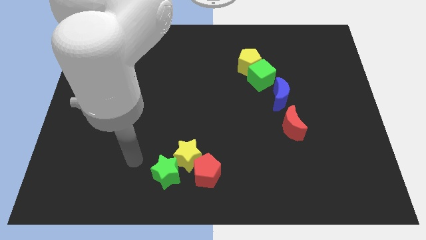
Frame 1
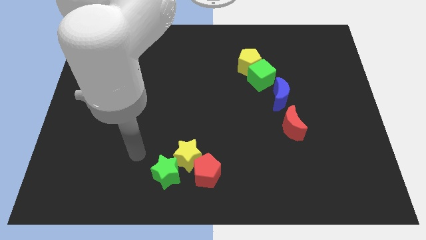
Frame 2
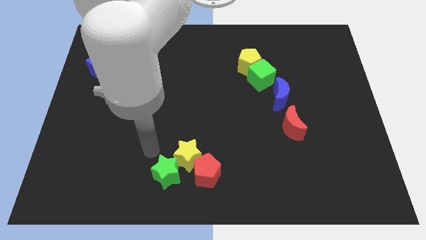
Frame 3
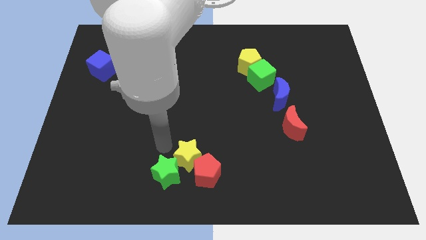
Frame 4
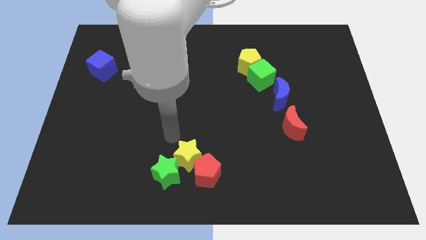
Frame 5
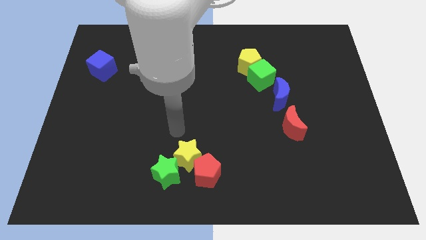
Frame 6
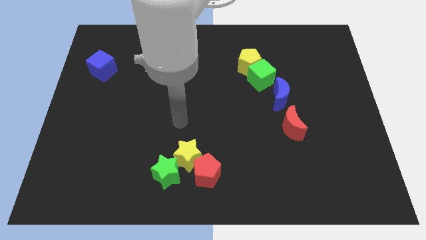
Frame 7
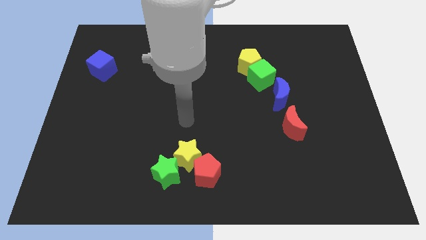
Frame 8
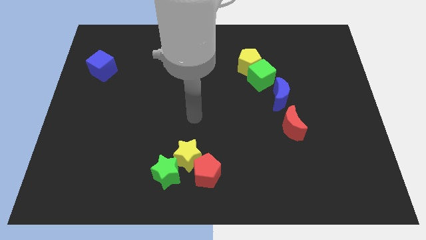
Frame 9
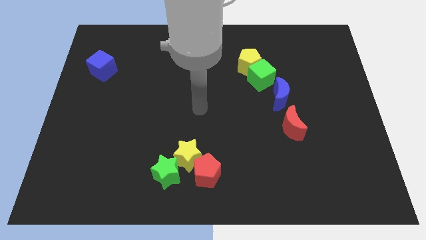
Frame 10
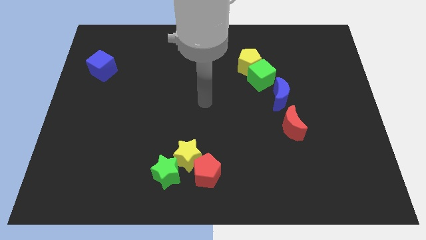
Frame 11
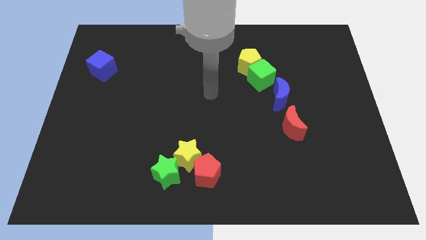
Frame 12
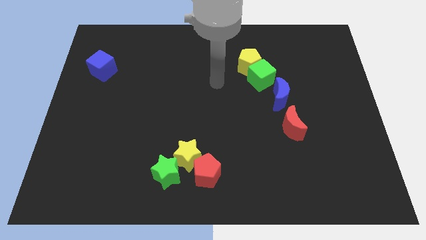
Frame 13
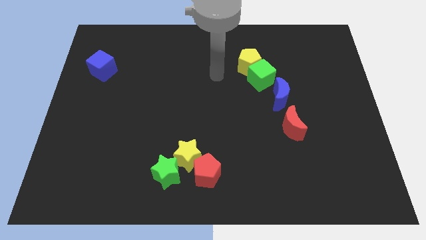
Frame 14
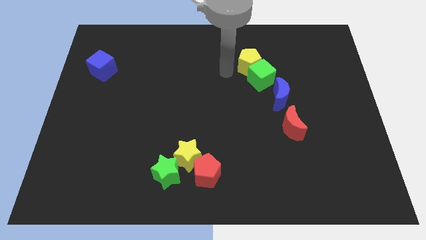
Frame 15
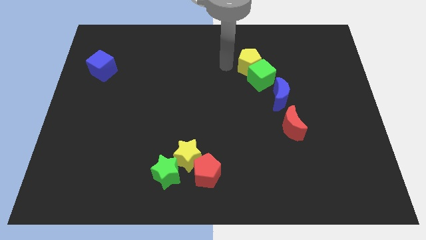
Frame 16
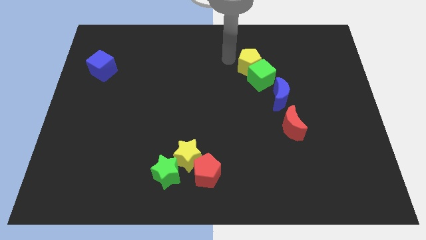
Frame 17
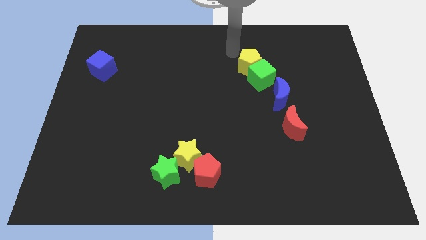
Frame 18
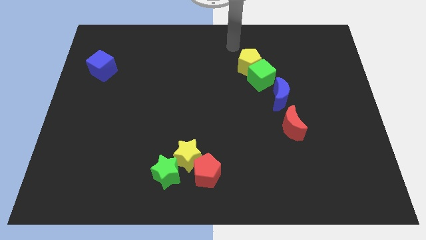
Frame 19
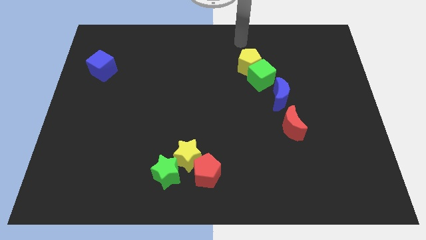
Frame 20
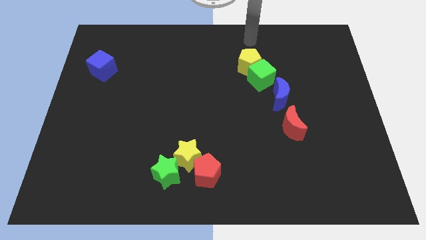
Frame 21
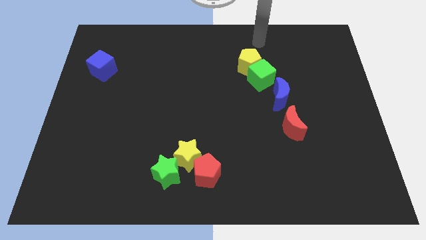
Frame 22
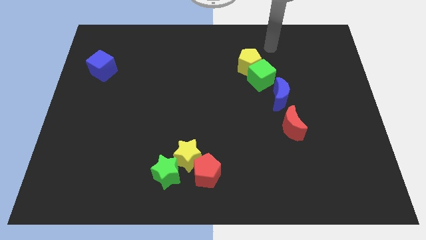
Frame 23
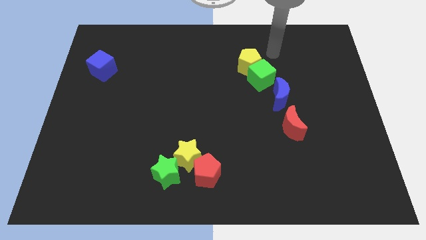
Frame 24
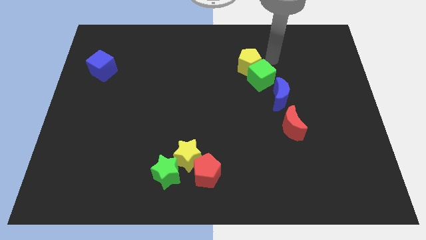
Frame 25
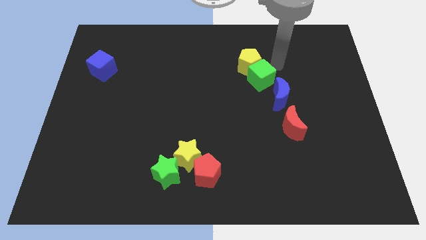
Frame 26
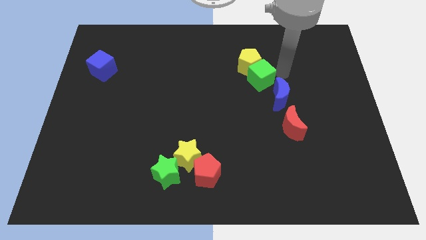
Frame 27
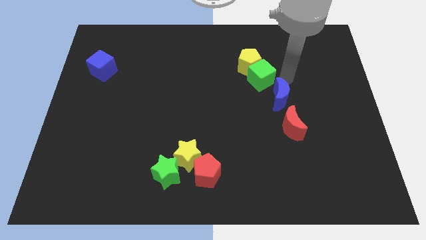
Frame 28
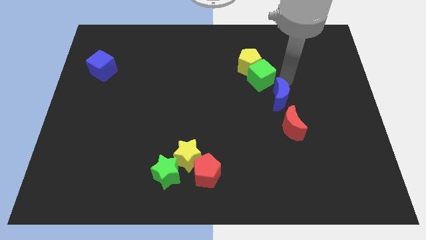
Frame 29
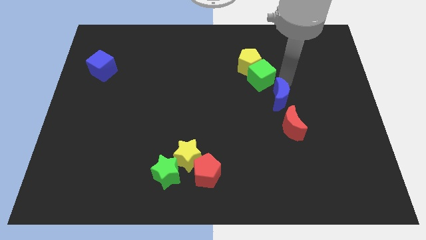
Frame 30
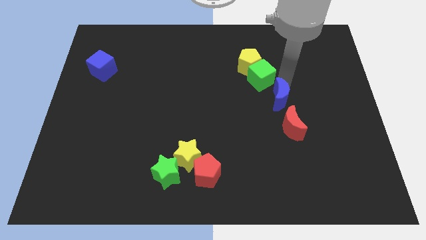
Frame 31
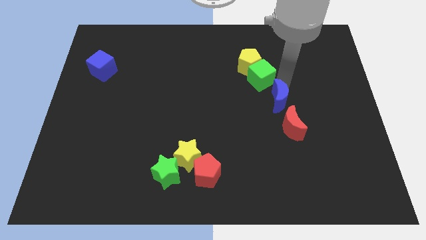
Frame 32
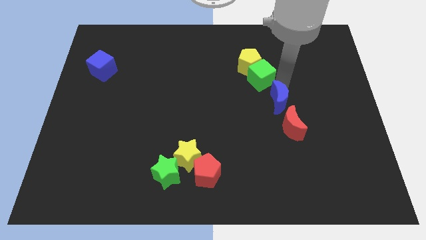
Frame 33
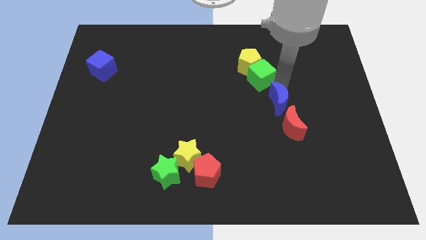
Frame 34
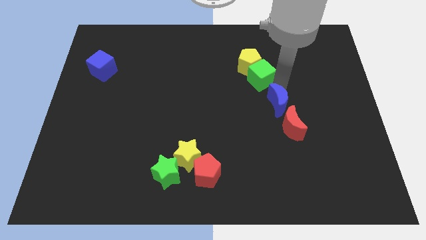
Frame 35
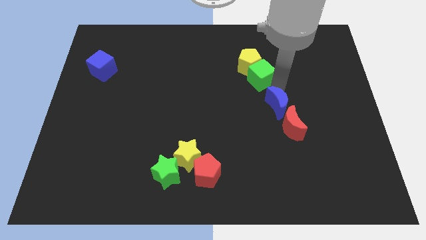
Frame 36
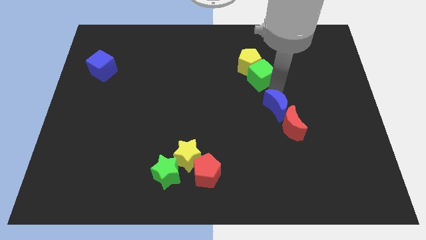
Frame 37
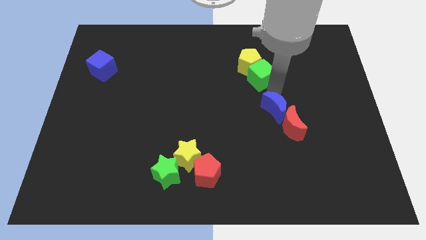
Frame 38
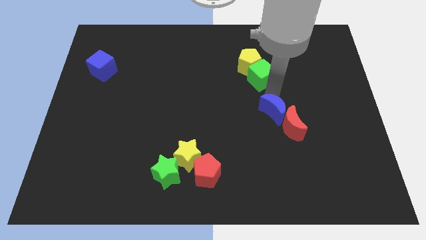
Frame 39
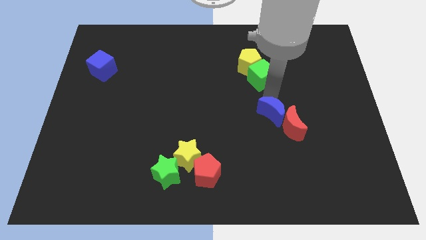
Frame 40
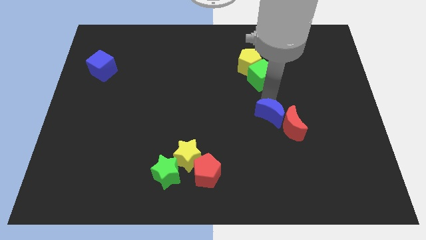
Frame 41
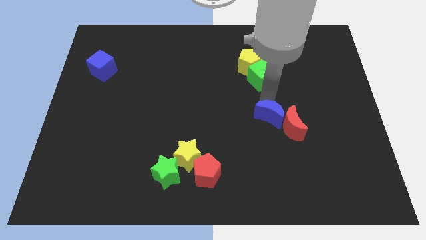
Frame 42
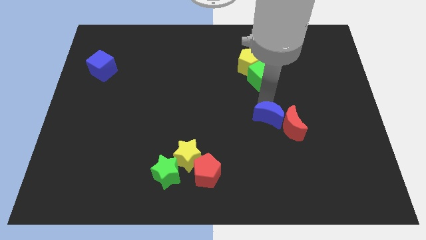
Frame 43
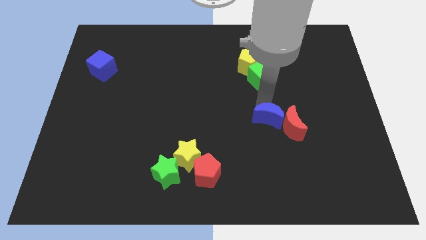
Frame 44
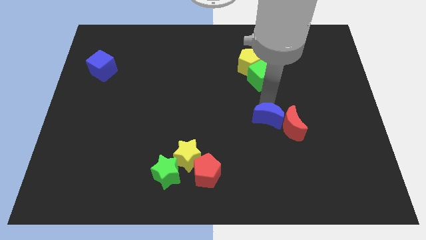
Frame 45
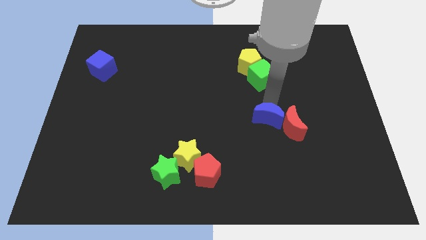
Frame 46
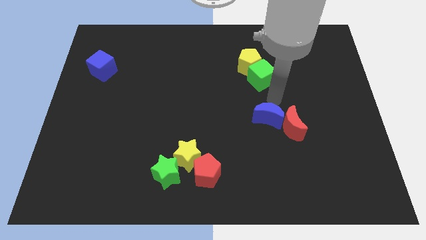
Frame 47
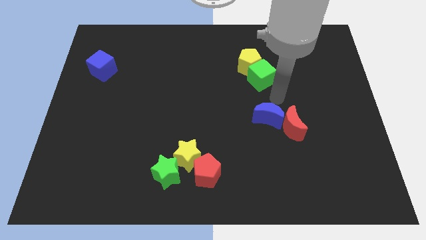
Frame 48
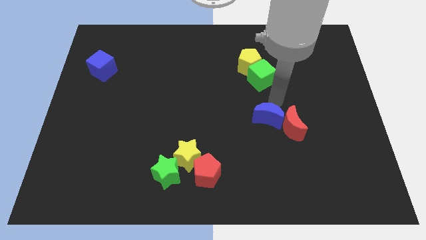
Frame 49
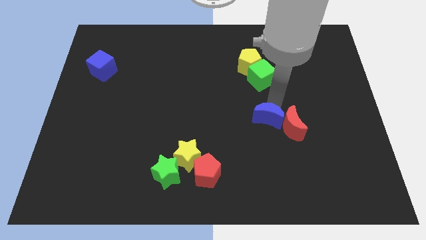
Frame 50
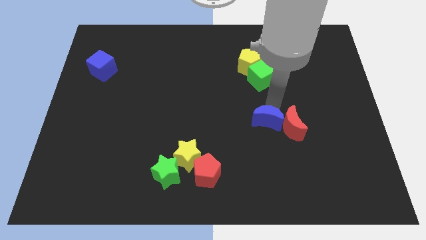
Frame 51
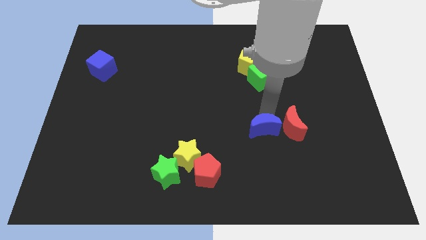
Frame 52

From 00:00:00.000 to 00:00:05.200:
move the blue moon a little downwards

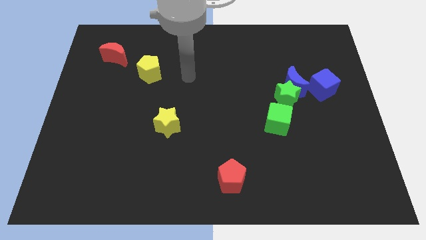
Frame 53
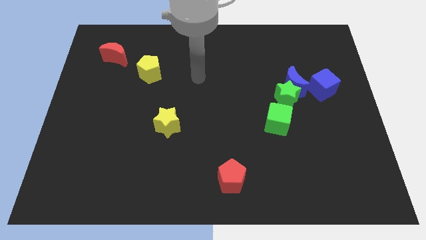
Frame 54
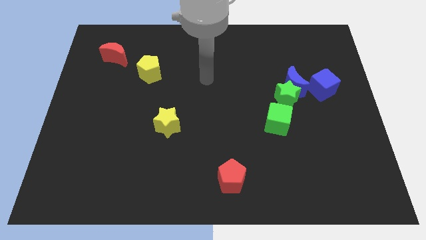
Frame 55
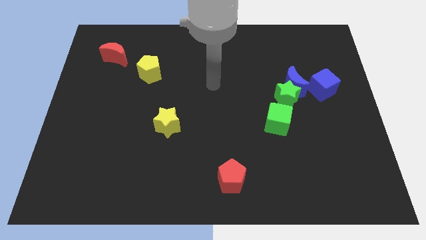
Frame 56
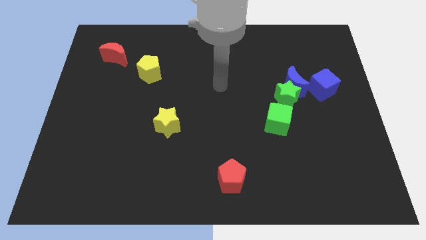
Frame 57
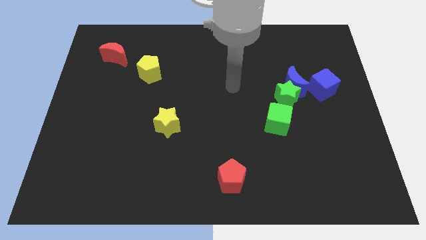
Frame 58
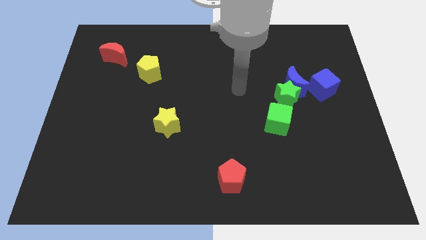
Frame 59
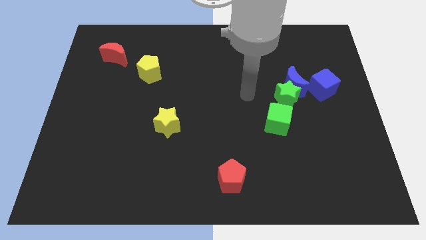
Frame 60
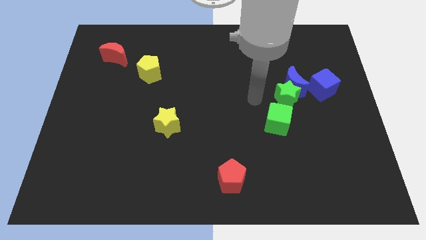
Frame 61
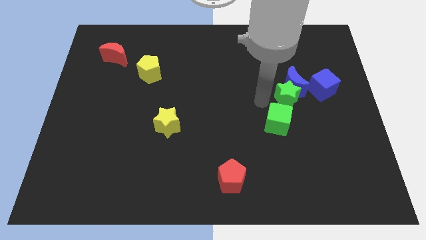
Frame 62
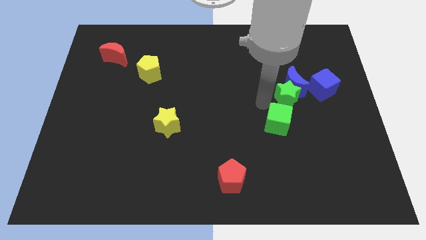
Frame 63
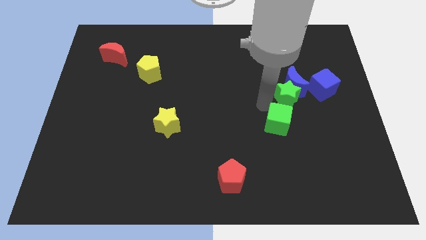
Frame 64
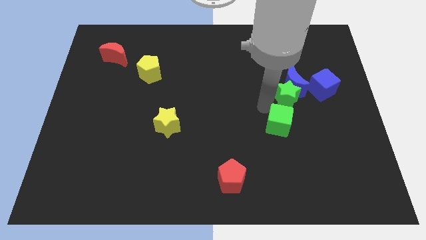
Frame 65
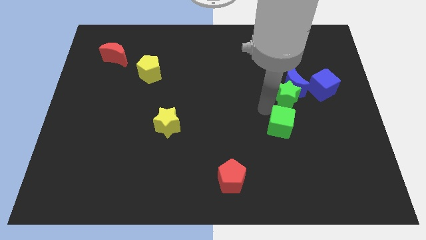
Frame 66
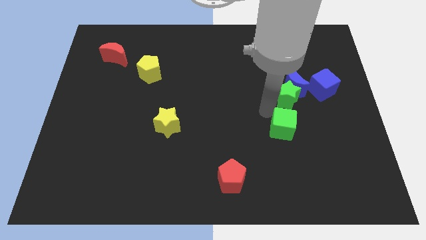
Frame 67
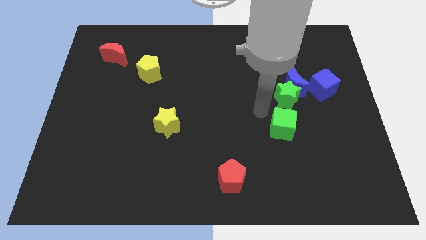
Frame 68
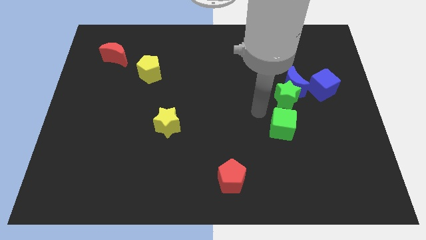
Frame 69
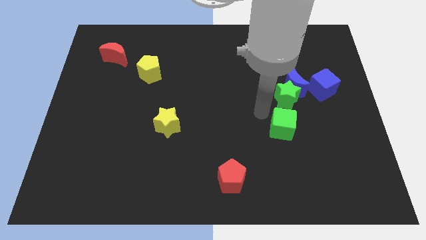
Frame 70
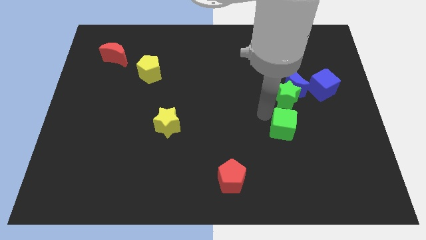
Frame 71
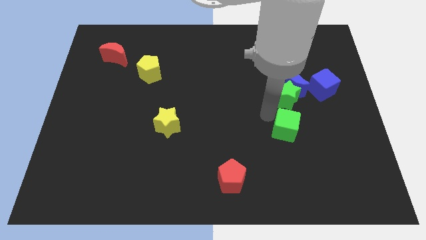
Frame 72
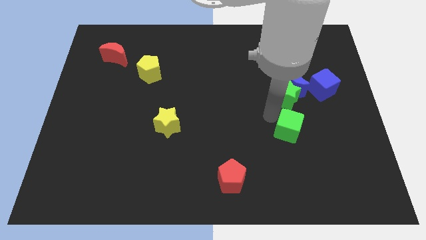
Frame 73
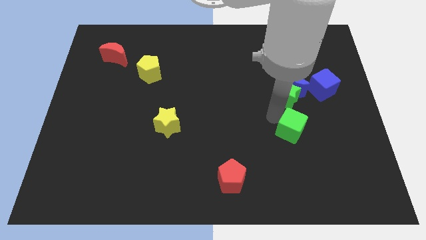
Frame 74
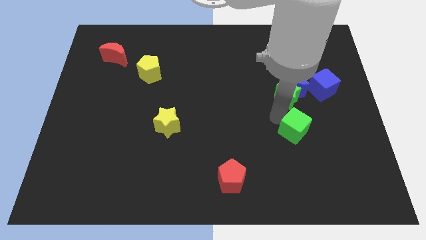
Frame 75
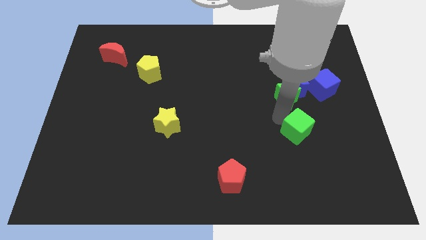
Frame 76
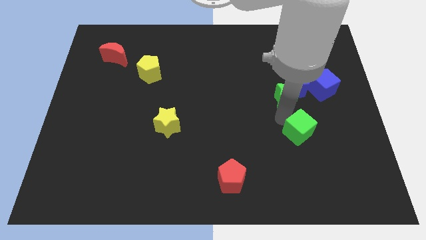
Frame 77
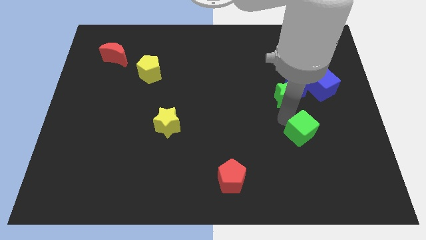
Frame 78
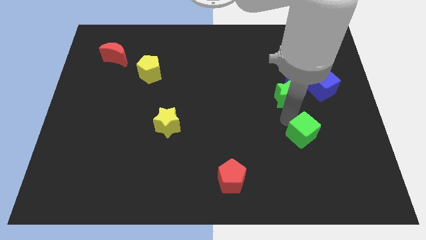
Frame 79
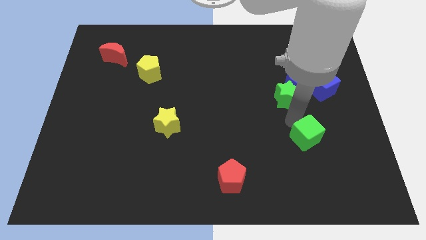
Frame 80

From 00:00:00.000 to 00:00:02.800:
move the green cube down and to the right diagonally somewhat

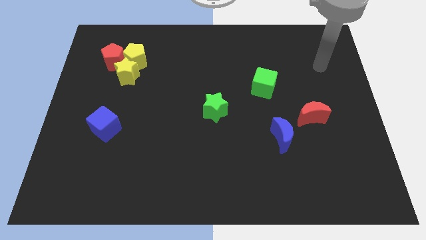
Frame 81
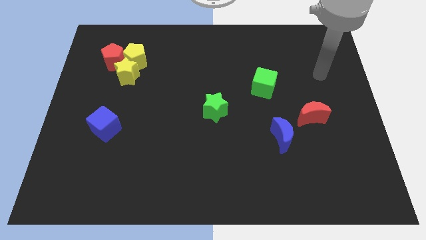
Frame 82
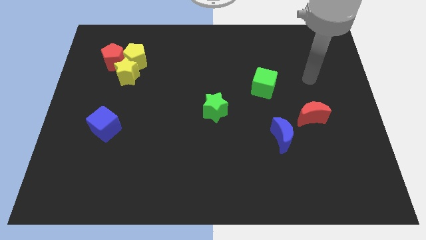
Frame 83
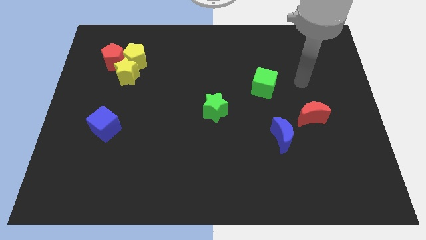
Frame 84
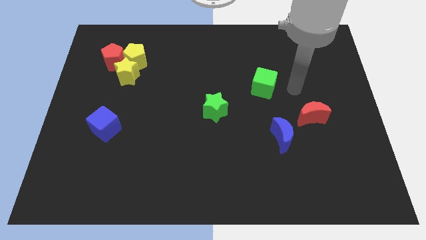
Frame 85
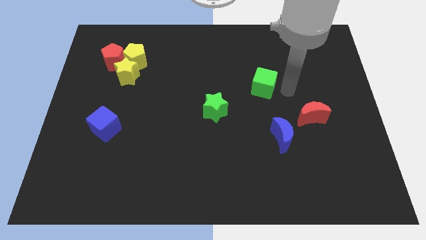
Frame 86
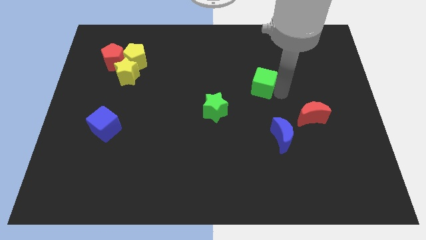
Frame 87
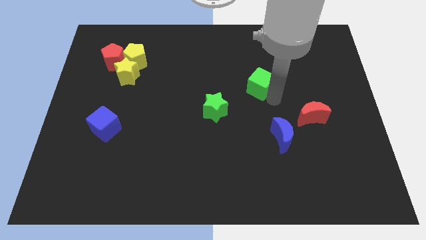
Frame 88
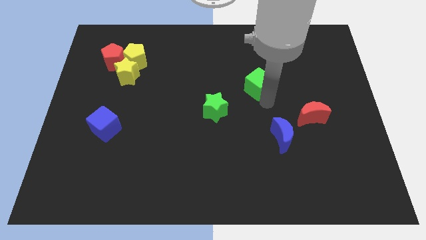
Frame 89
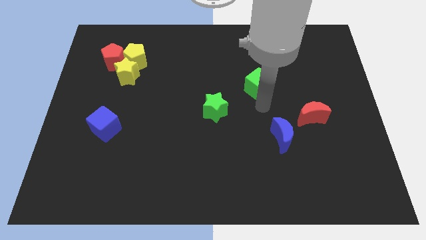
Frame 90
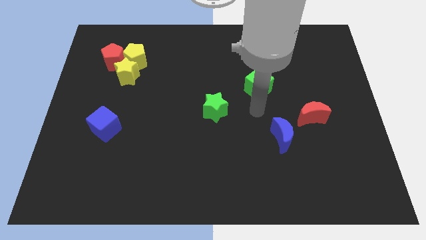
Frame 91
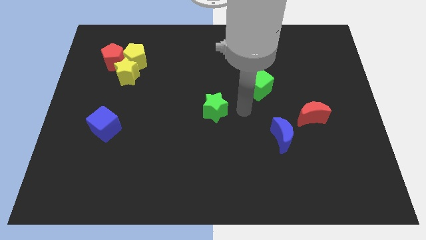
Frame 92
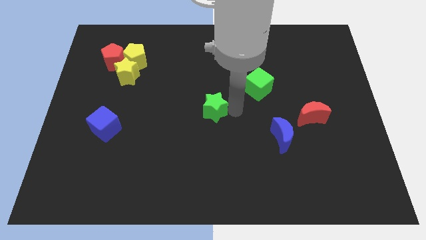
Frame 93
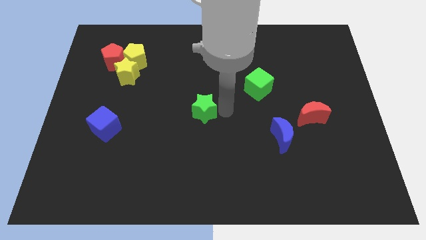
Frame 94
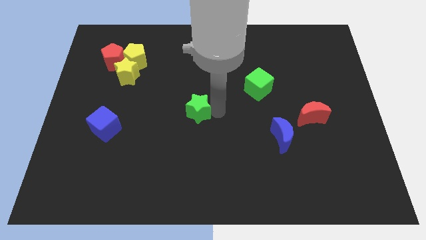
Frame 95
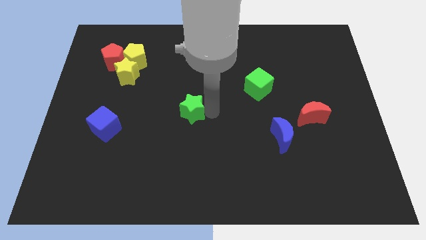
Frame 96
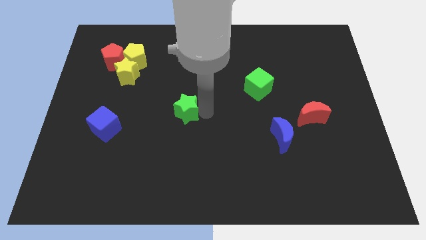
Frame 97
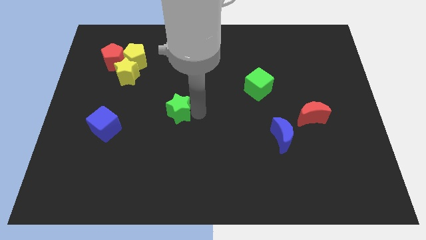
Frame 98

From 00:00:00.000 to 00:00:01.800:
push the green star slightly to the left
